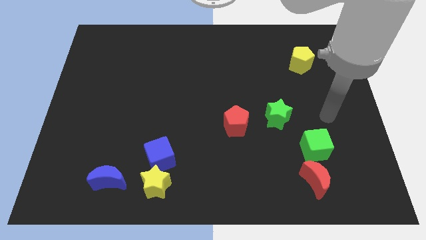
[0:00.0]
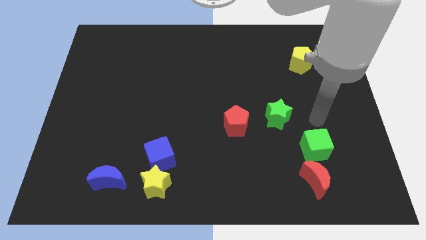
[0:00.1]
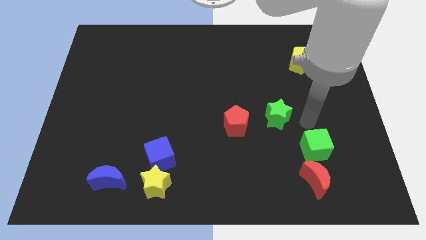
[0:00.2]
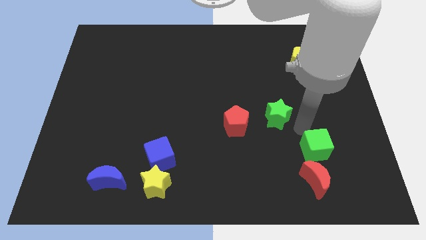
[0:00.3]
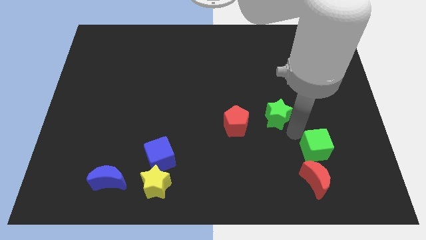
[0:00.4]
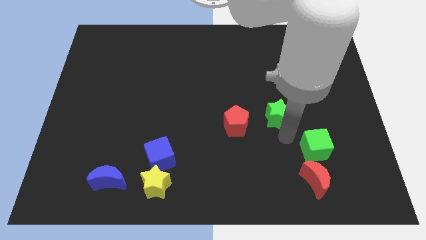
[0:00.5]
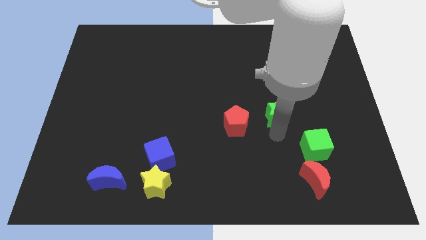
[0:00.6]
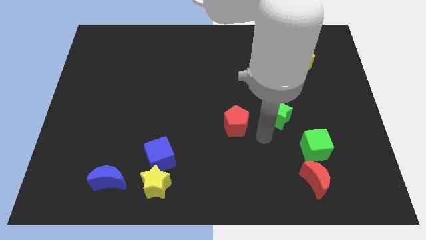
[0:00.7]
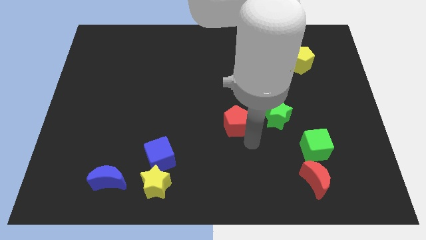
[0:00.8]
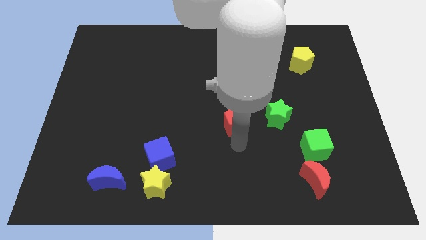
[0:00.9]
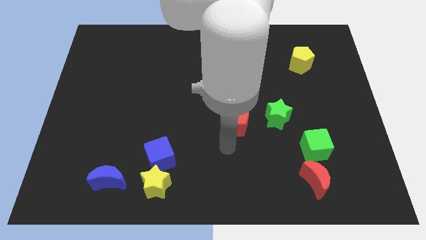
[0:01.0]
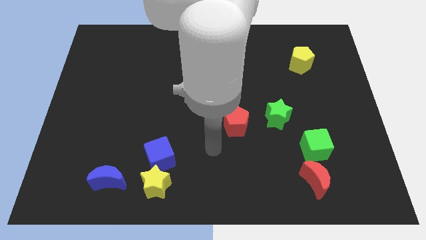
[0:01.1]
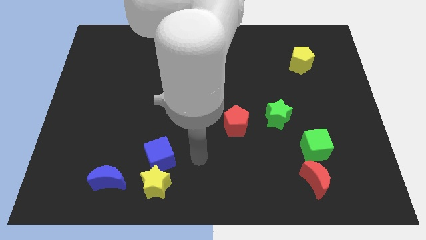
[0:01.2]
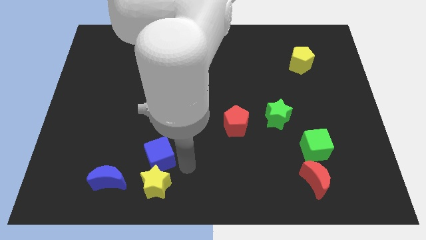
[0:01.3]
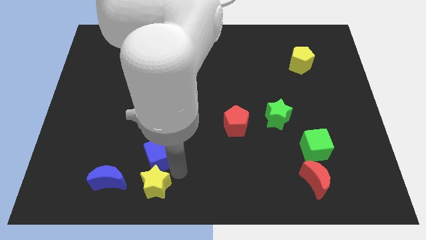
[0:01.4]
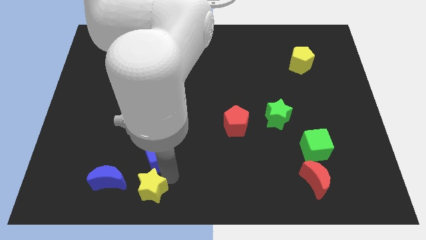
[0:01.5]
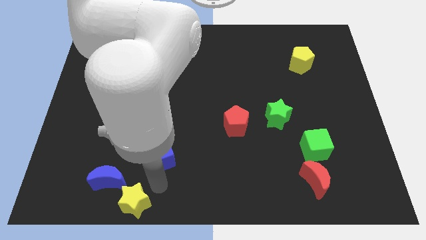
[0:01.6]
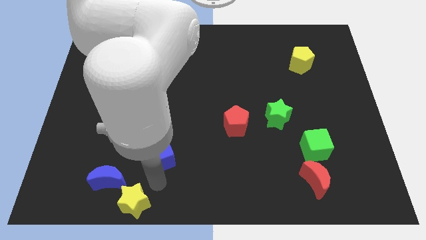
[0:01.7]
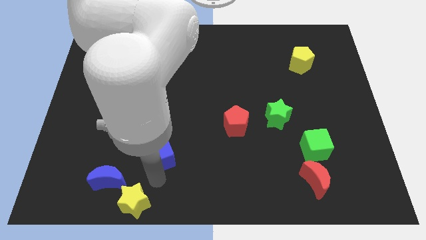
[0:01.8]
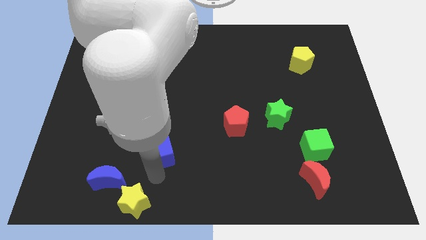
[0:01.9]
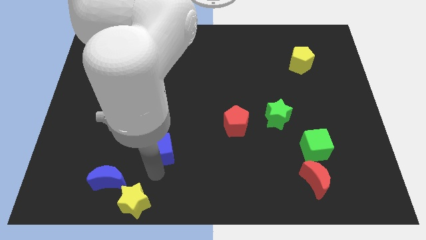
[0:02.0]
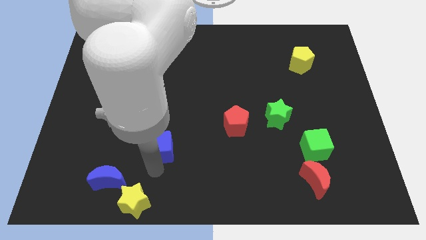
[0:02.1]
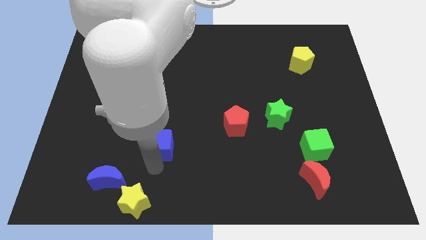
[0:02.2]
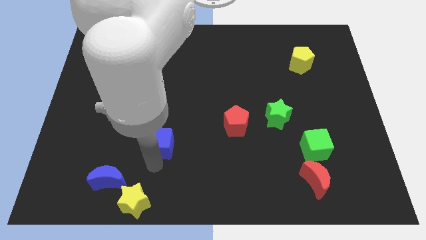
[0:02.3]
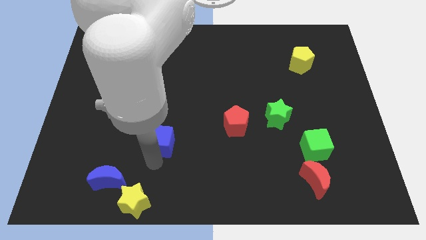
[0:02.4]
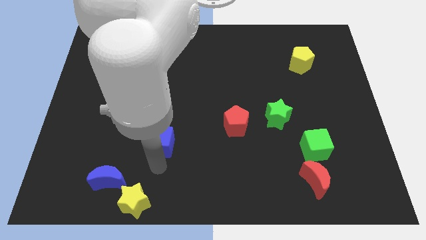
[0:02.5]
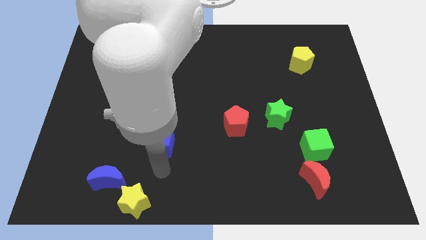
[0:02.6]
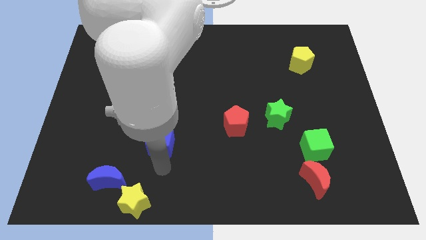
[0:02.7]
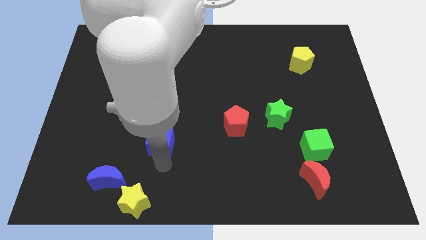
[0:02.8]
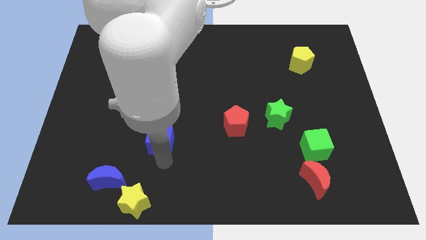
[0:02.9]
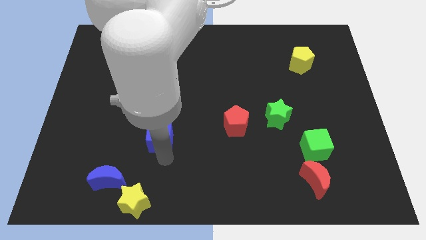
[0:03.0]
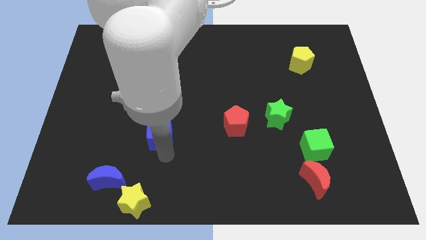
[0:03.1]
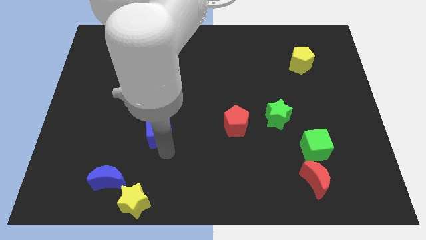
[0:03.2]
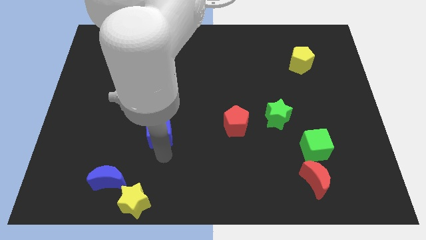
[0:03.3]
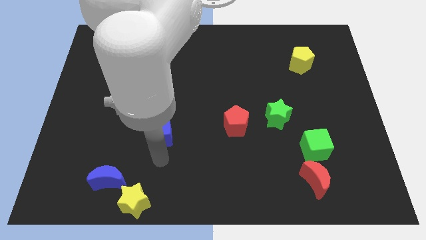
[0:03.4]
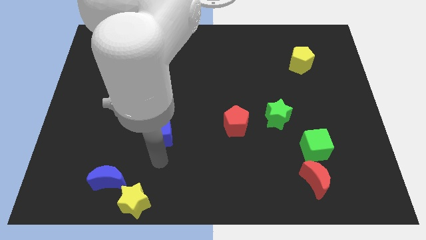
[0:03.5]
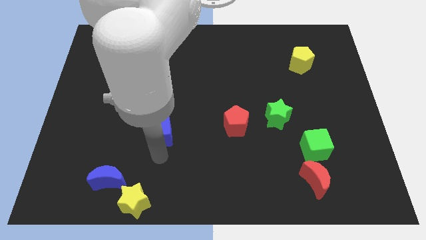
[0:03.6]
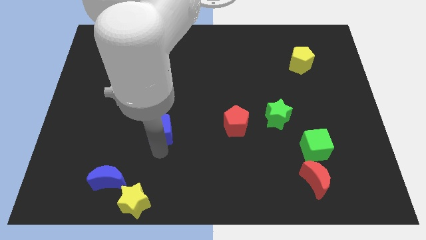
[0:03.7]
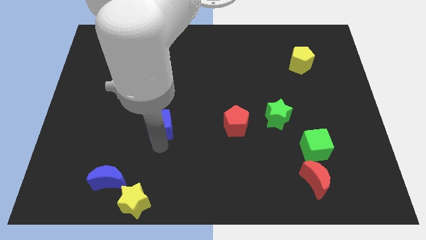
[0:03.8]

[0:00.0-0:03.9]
push the blue cube upwards somewhat

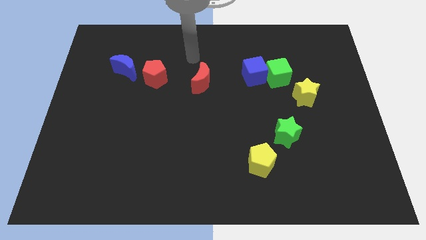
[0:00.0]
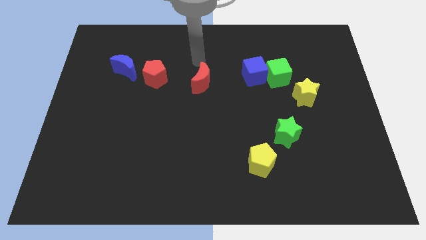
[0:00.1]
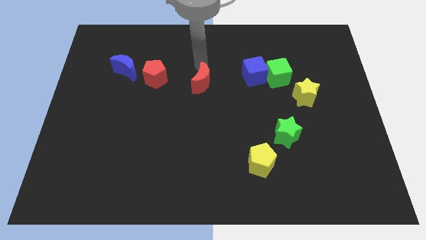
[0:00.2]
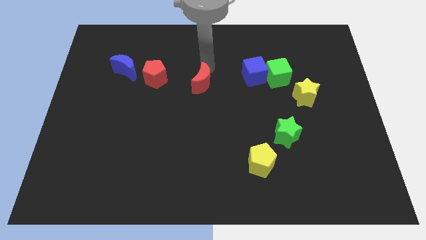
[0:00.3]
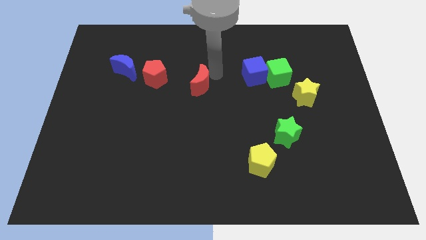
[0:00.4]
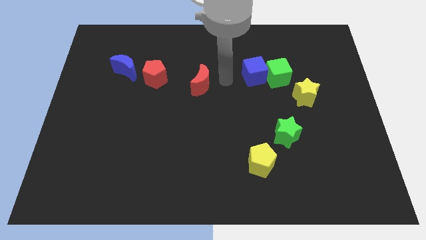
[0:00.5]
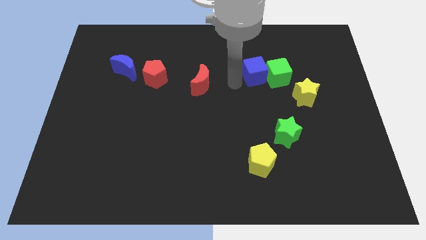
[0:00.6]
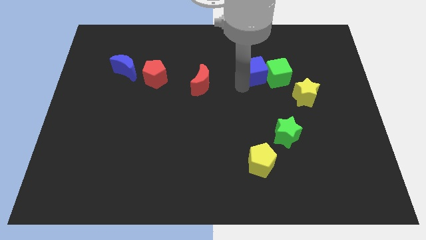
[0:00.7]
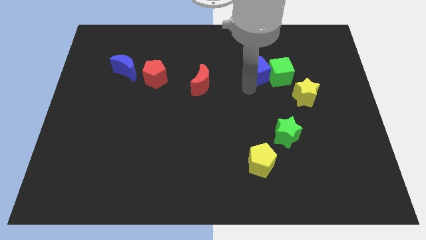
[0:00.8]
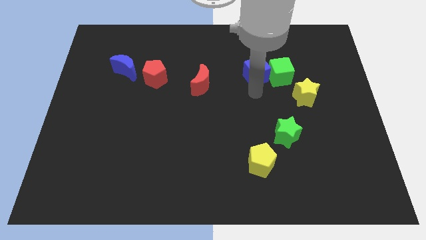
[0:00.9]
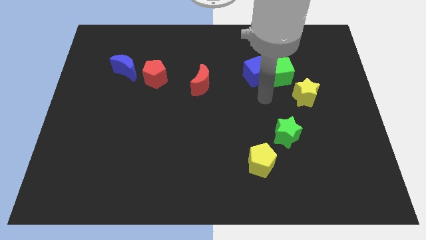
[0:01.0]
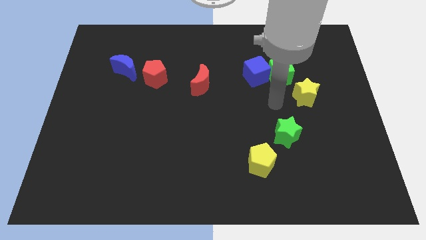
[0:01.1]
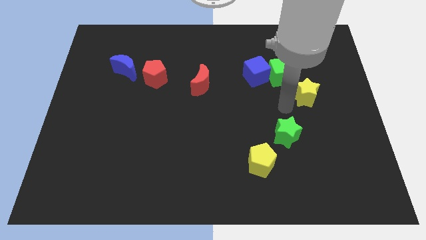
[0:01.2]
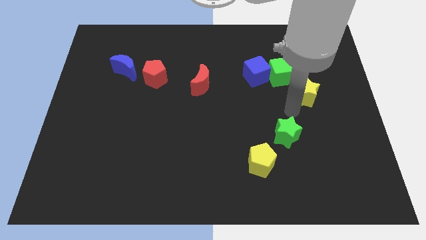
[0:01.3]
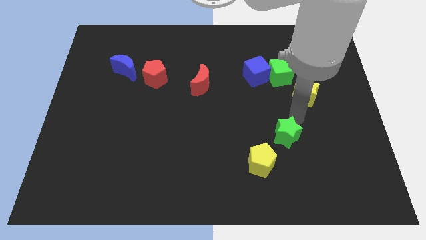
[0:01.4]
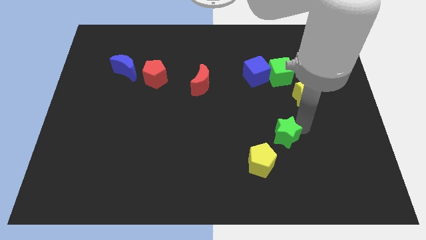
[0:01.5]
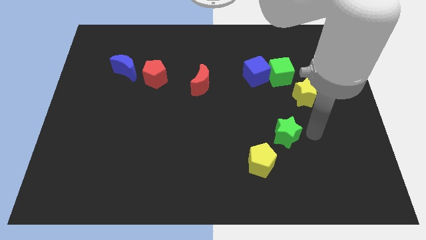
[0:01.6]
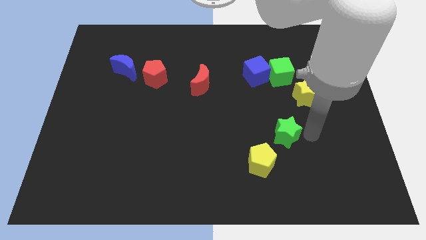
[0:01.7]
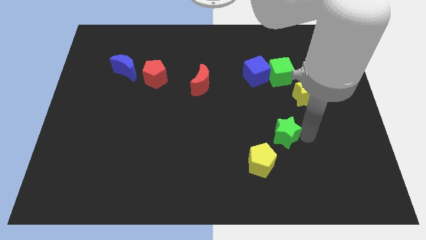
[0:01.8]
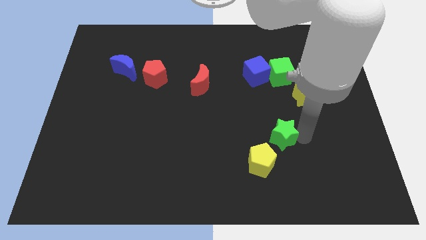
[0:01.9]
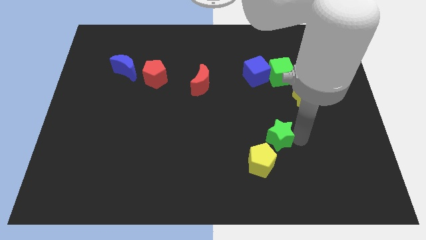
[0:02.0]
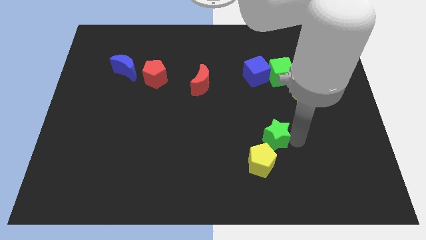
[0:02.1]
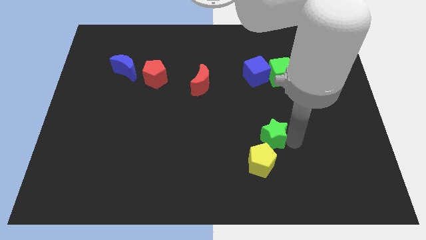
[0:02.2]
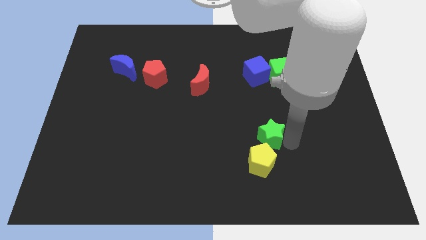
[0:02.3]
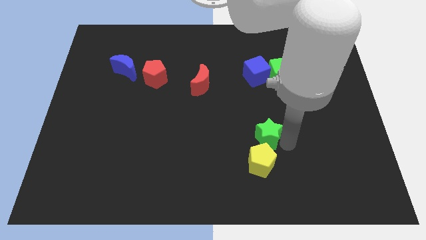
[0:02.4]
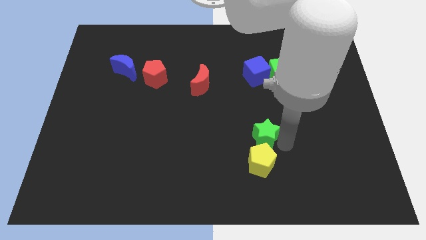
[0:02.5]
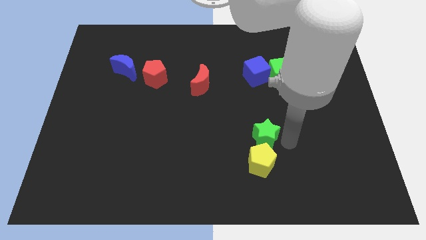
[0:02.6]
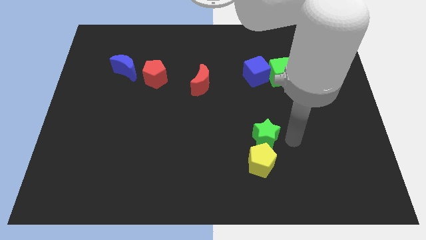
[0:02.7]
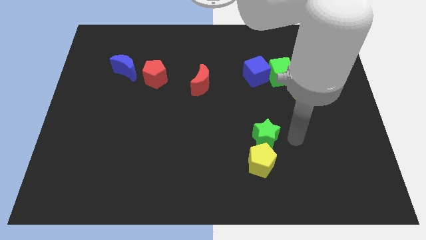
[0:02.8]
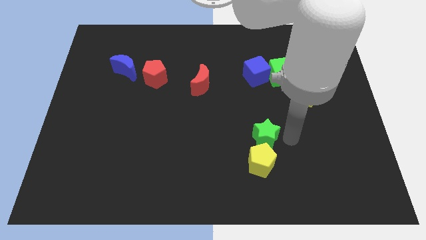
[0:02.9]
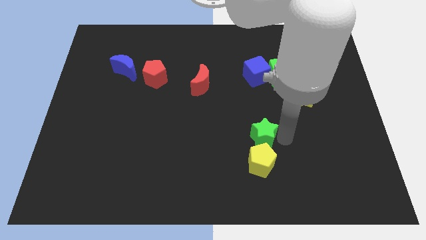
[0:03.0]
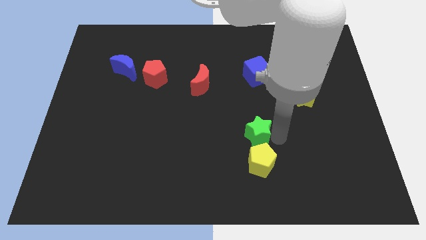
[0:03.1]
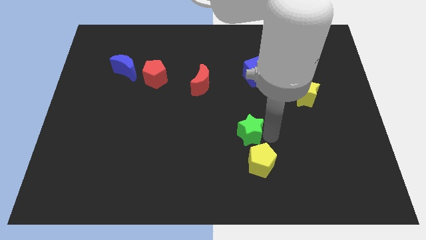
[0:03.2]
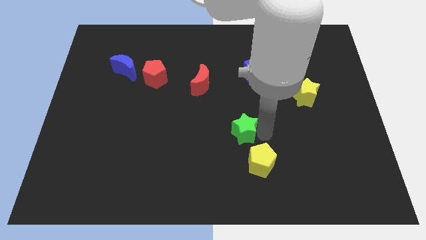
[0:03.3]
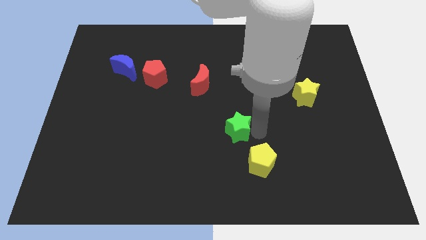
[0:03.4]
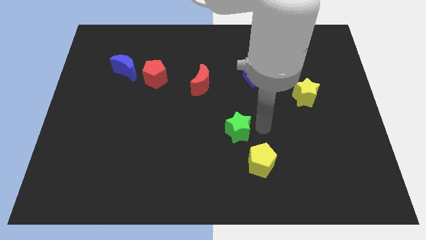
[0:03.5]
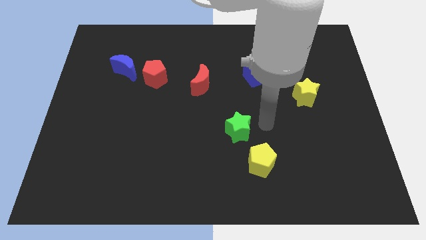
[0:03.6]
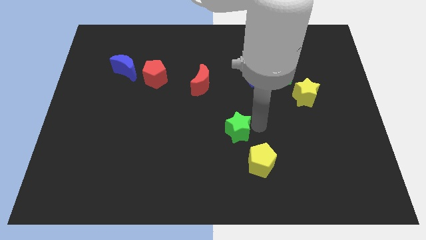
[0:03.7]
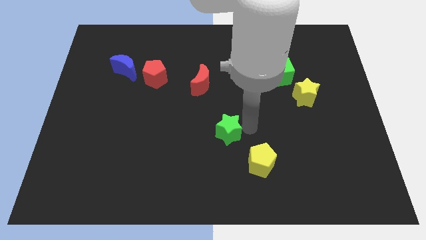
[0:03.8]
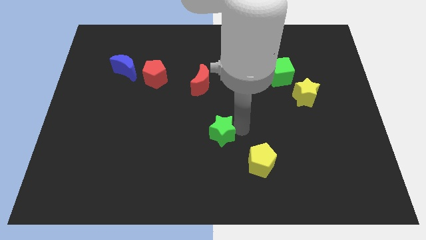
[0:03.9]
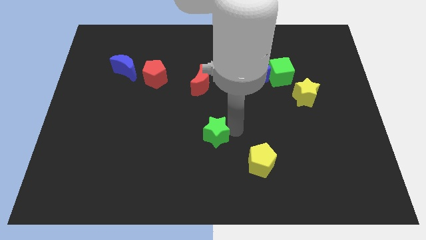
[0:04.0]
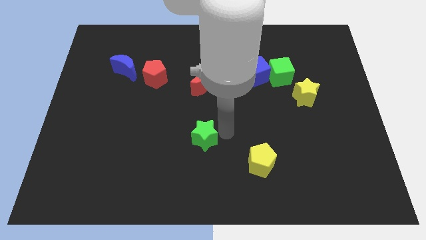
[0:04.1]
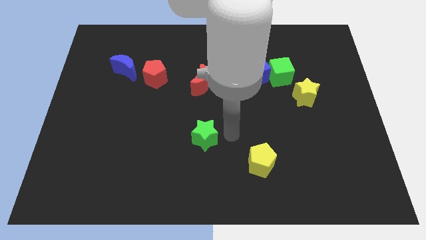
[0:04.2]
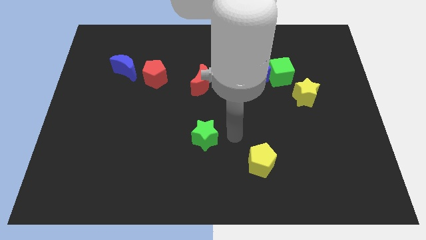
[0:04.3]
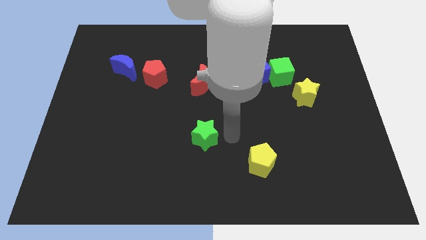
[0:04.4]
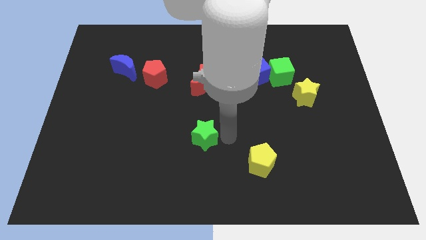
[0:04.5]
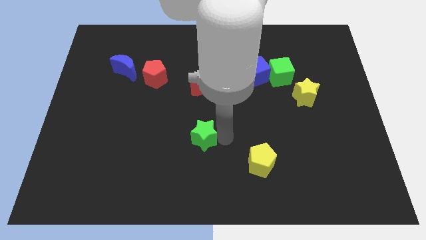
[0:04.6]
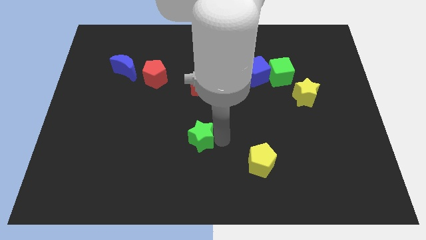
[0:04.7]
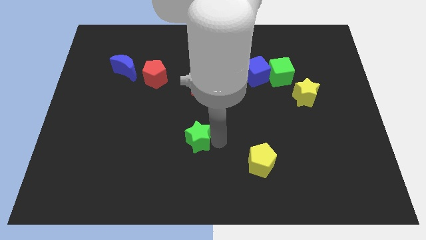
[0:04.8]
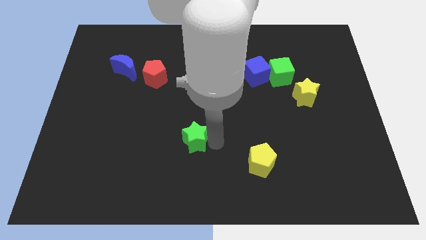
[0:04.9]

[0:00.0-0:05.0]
move the green star left
